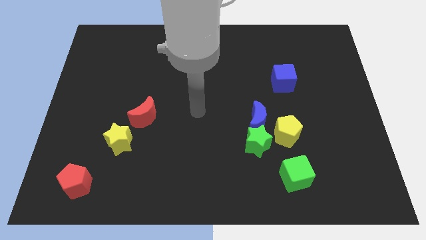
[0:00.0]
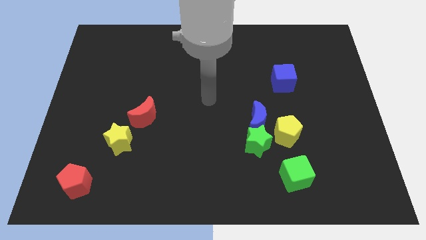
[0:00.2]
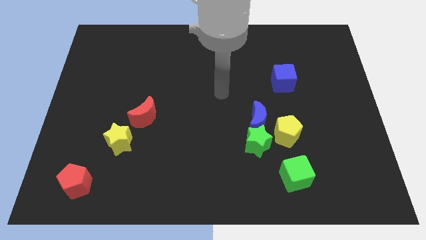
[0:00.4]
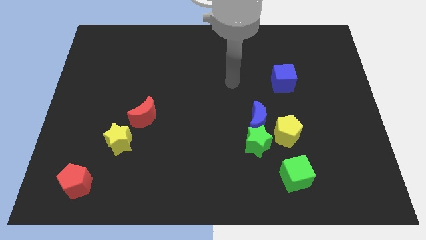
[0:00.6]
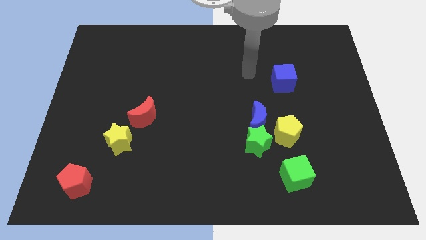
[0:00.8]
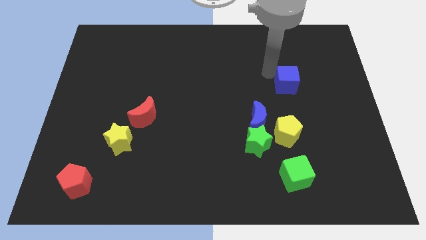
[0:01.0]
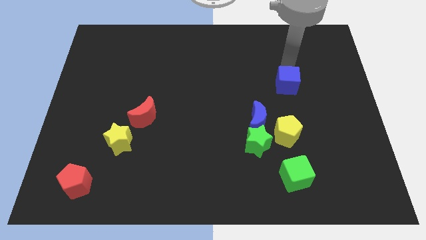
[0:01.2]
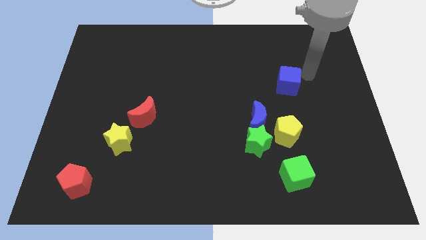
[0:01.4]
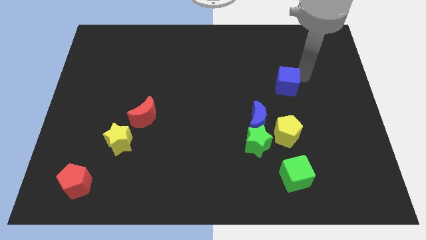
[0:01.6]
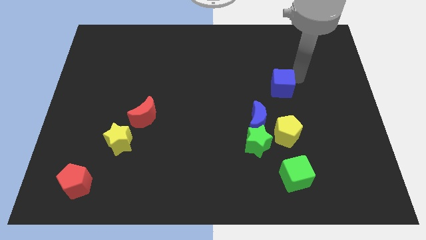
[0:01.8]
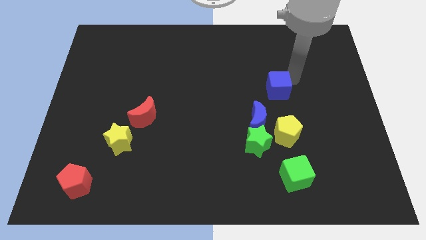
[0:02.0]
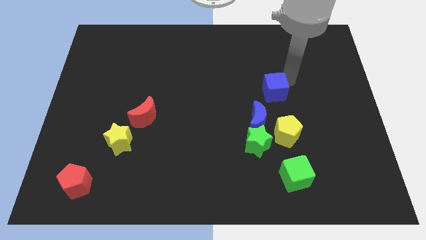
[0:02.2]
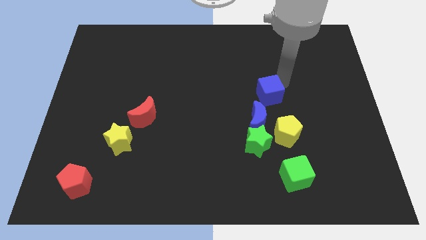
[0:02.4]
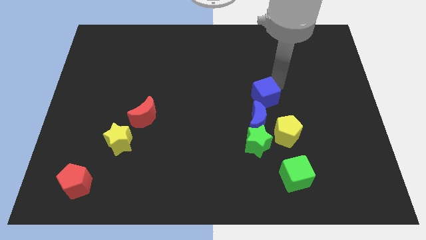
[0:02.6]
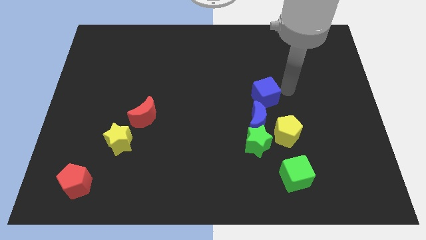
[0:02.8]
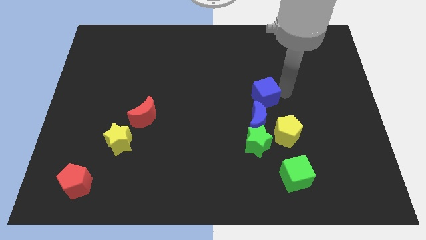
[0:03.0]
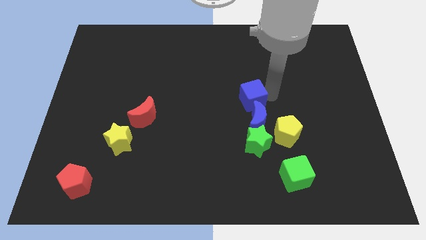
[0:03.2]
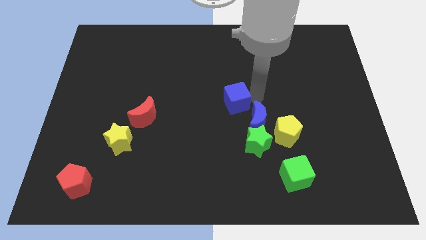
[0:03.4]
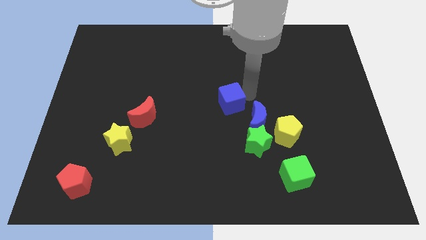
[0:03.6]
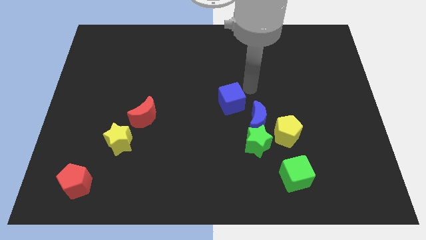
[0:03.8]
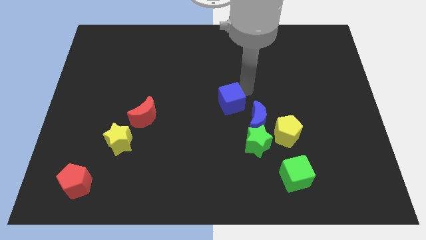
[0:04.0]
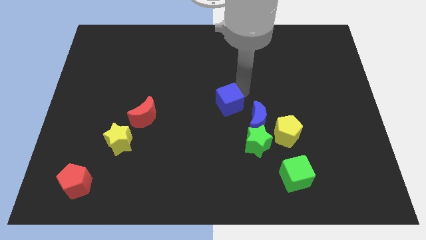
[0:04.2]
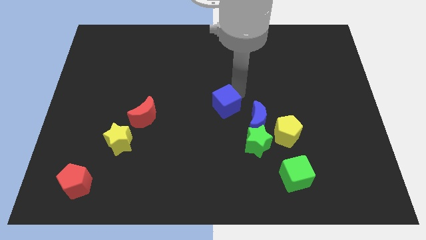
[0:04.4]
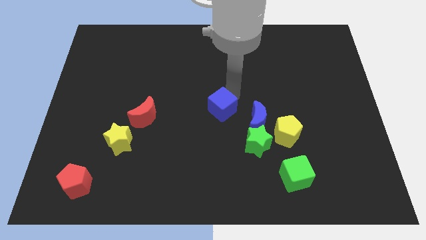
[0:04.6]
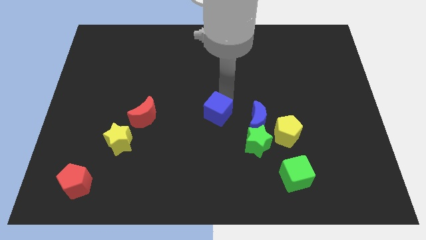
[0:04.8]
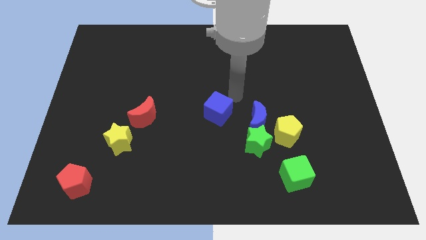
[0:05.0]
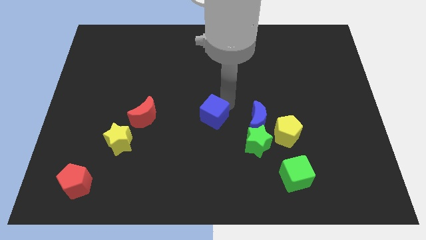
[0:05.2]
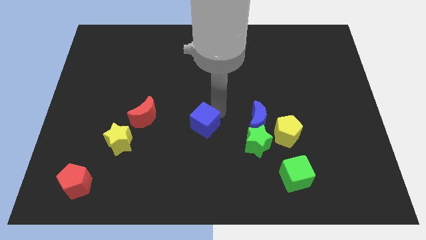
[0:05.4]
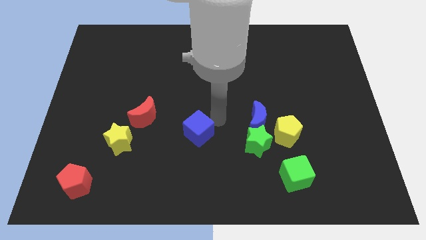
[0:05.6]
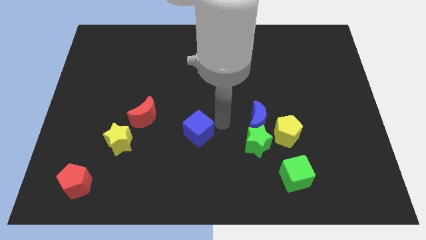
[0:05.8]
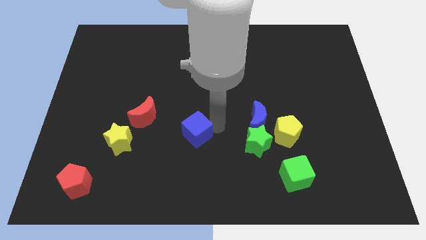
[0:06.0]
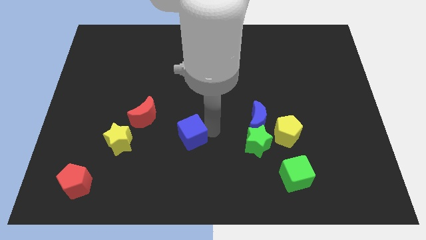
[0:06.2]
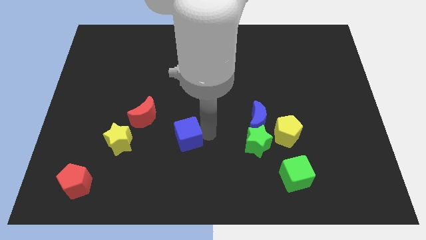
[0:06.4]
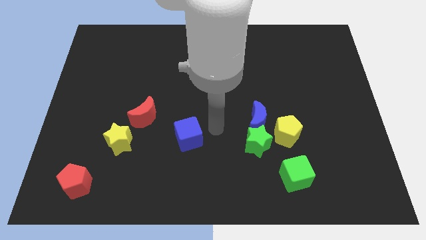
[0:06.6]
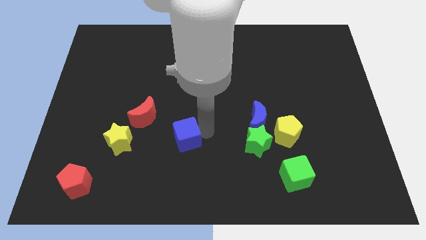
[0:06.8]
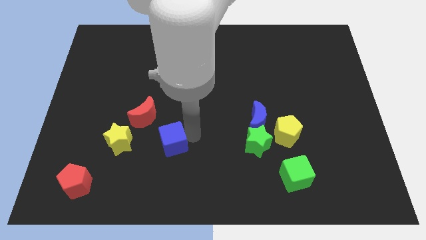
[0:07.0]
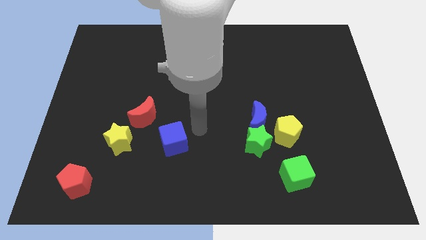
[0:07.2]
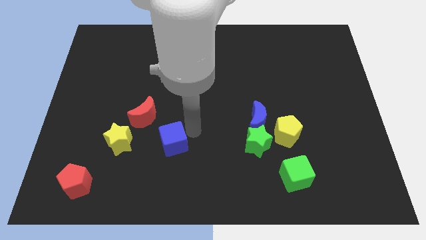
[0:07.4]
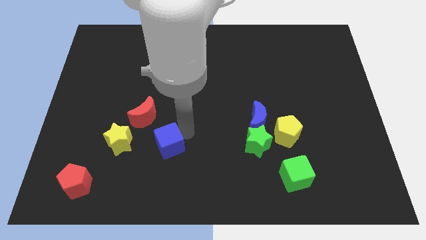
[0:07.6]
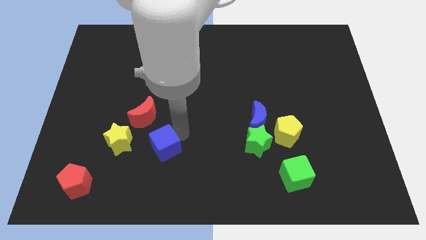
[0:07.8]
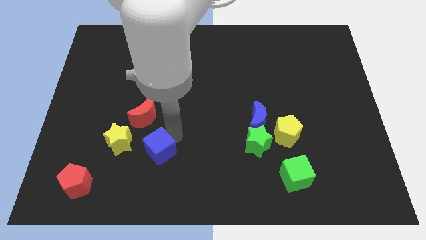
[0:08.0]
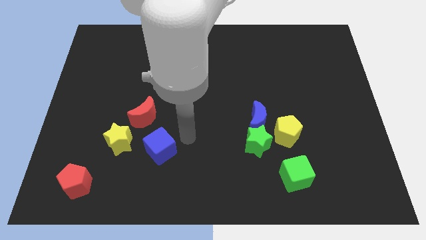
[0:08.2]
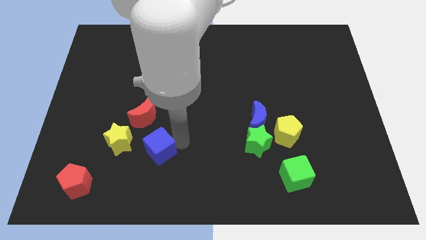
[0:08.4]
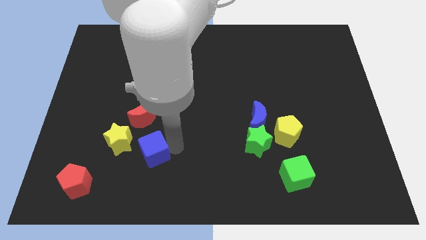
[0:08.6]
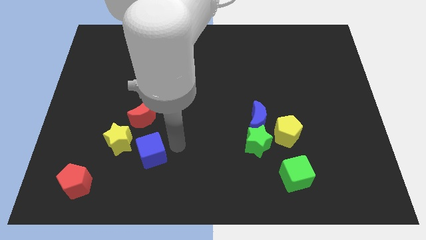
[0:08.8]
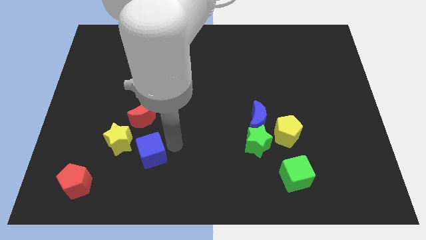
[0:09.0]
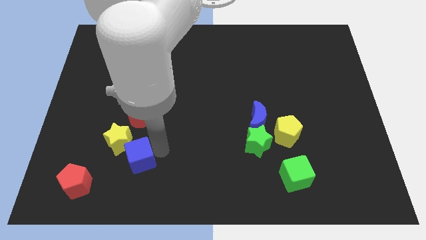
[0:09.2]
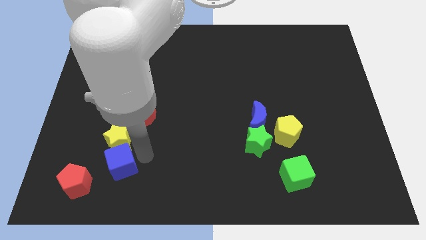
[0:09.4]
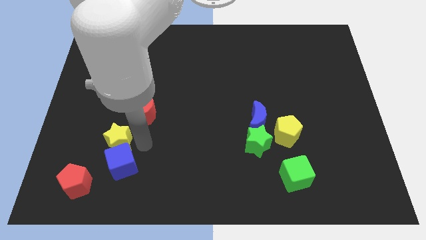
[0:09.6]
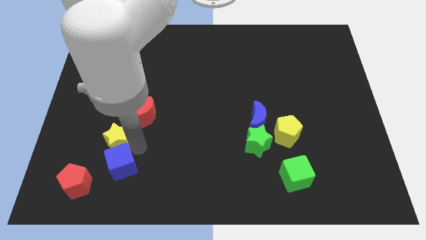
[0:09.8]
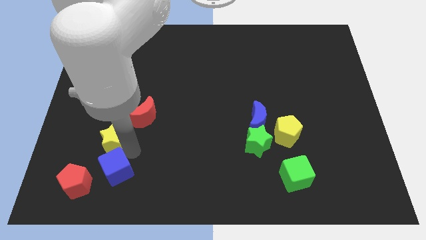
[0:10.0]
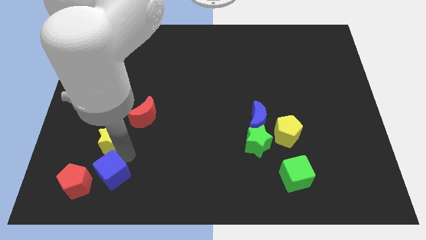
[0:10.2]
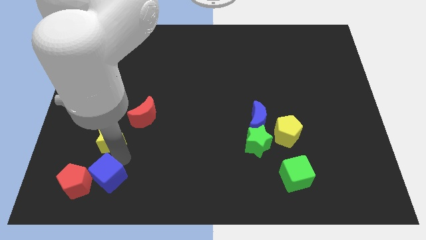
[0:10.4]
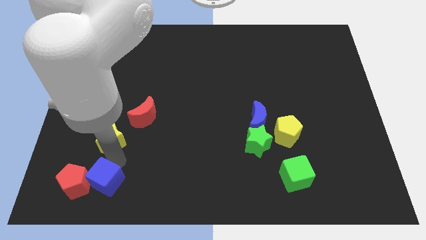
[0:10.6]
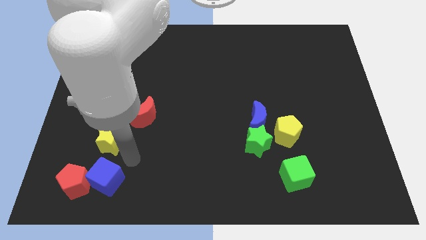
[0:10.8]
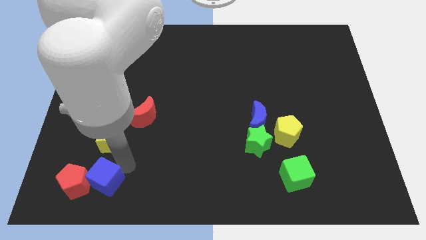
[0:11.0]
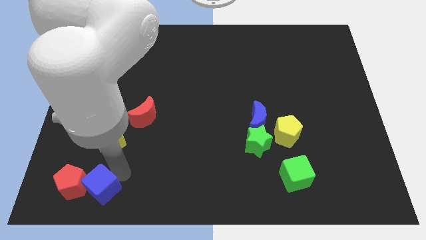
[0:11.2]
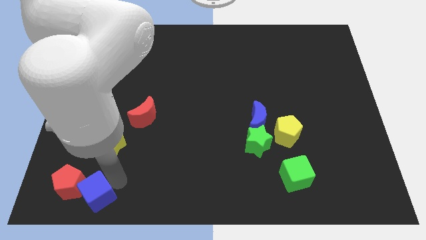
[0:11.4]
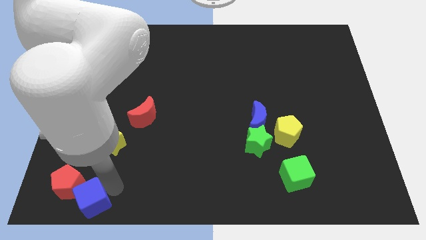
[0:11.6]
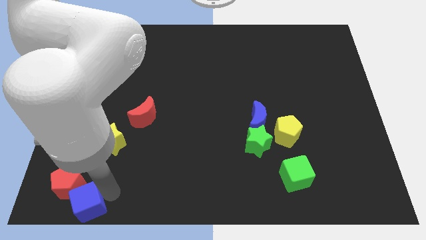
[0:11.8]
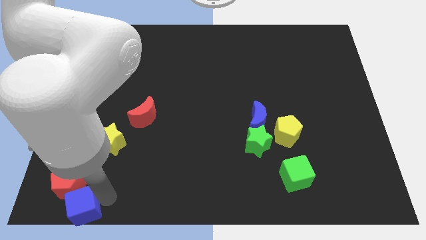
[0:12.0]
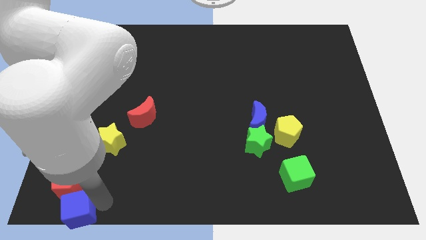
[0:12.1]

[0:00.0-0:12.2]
put the blue cube to the bottom left corner

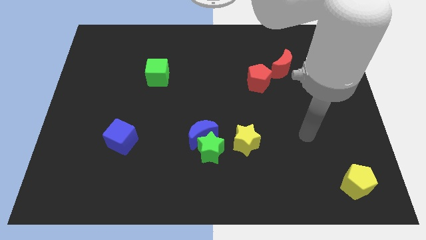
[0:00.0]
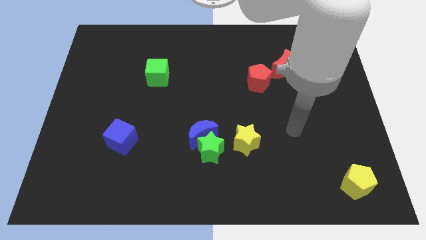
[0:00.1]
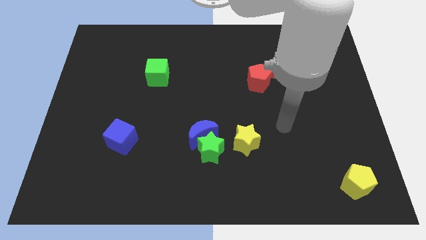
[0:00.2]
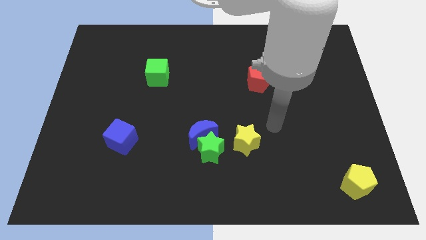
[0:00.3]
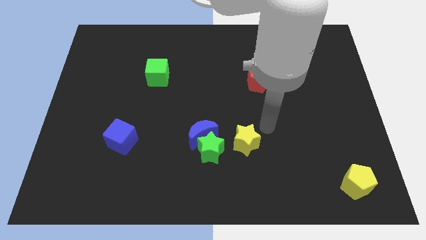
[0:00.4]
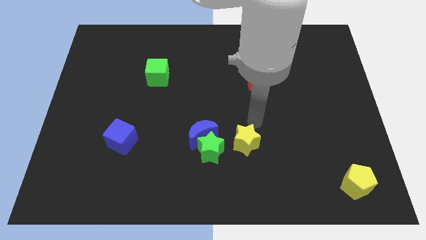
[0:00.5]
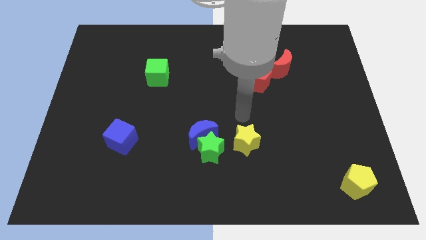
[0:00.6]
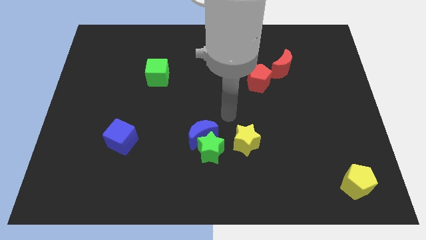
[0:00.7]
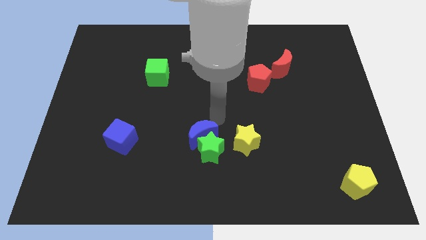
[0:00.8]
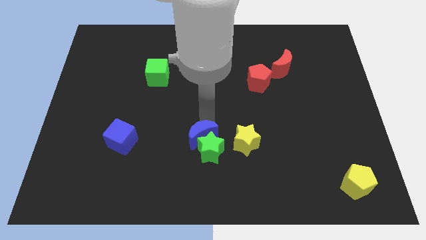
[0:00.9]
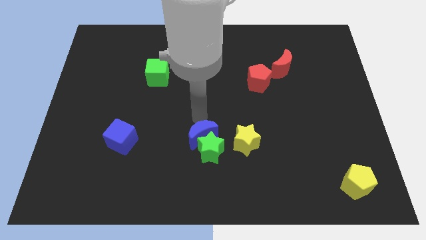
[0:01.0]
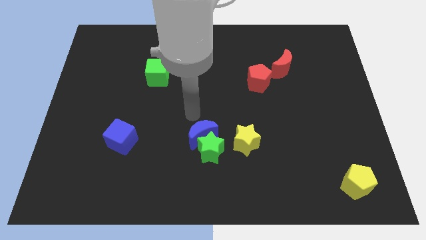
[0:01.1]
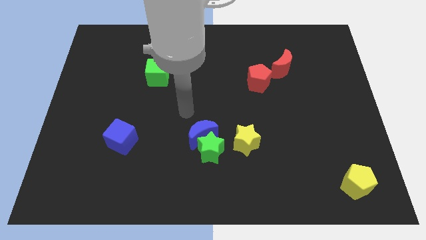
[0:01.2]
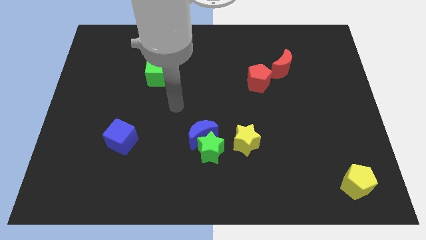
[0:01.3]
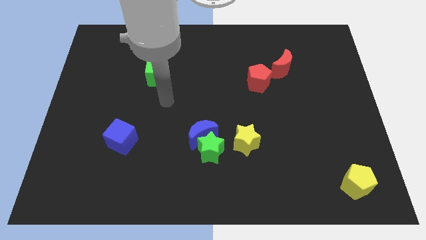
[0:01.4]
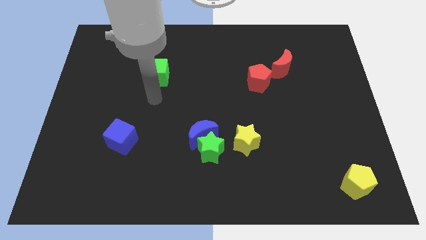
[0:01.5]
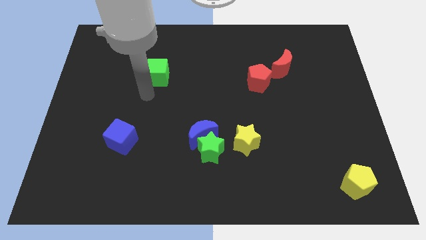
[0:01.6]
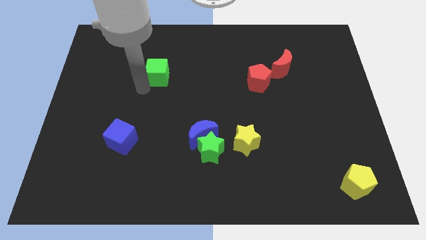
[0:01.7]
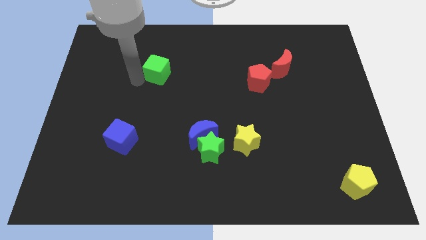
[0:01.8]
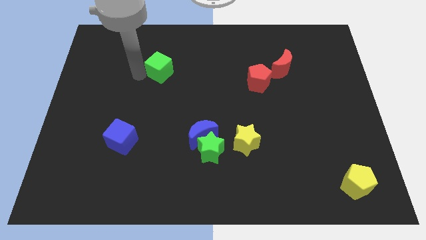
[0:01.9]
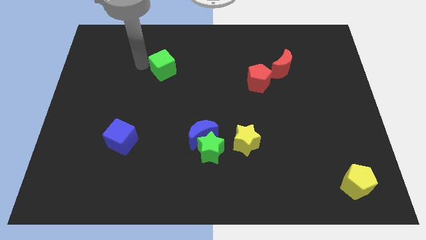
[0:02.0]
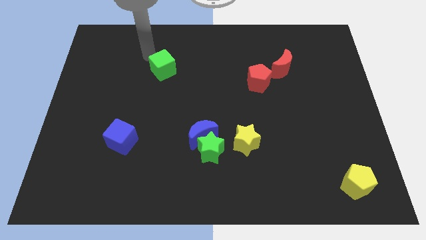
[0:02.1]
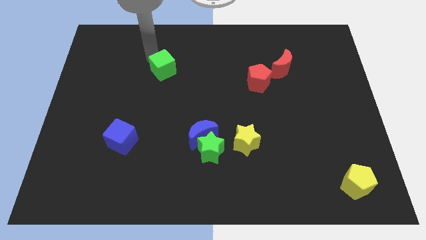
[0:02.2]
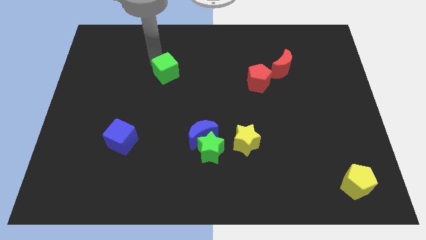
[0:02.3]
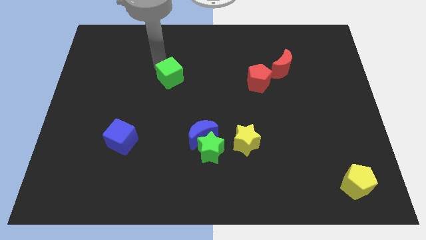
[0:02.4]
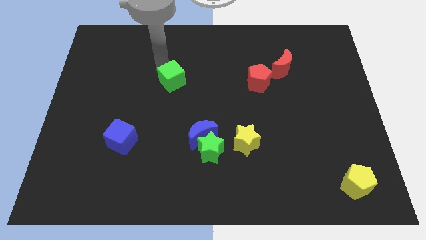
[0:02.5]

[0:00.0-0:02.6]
push the green cube to the middle of the board
